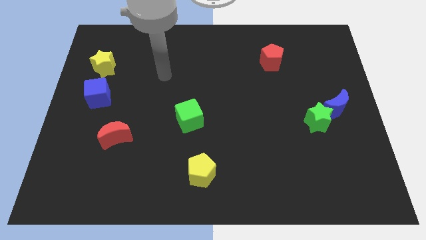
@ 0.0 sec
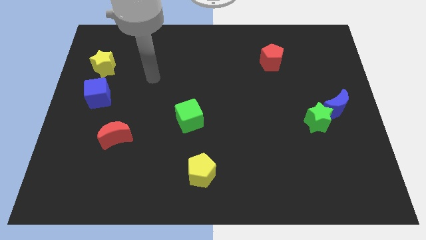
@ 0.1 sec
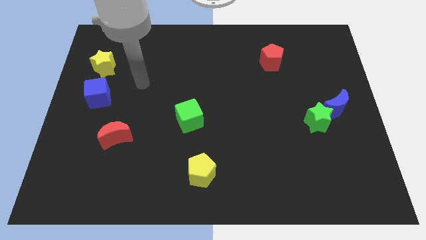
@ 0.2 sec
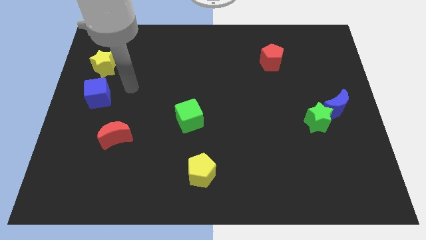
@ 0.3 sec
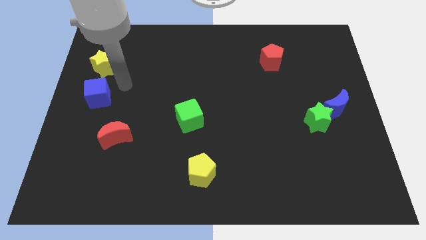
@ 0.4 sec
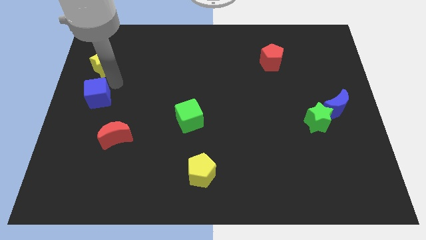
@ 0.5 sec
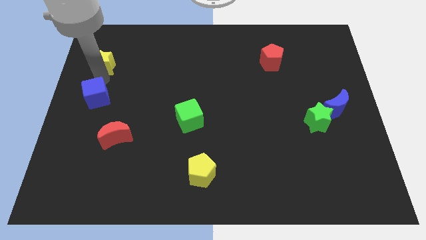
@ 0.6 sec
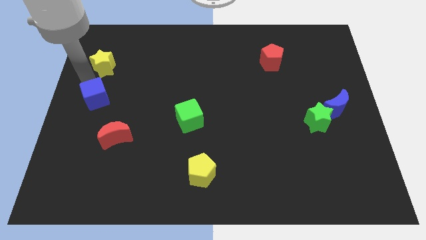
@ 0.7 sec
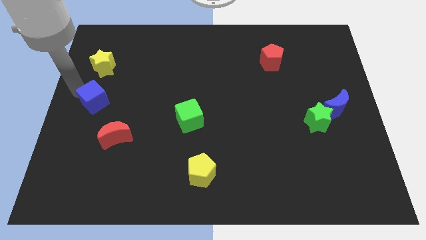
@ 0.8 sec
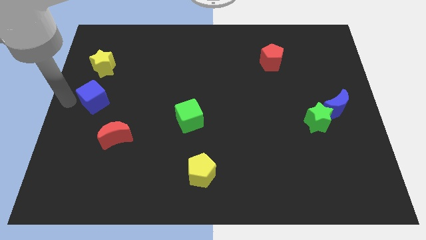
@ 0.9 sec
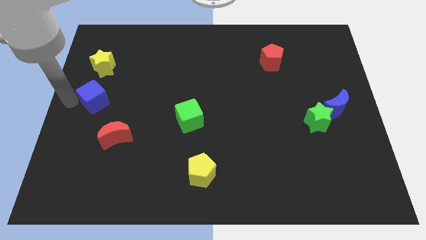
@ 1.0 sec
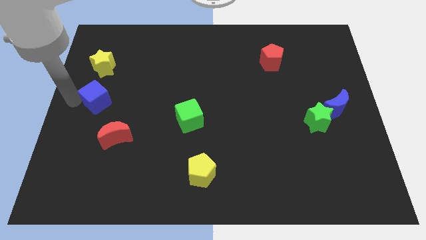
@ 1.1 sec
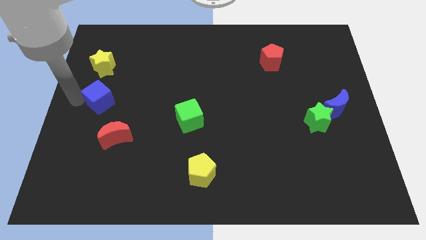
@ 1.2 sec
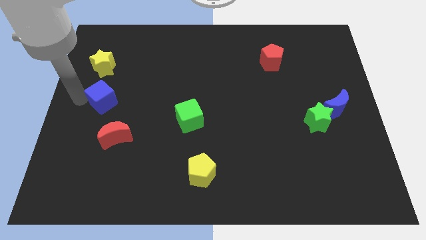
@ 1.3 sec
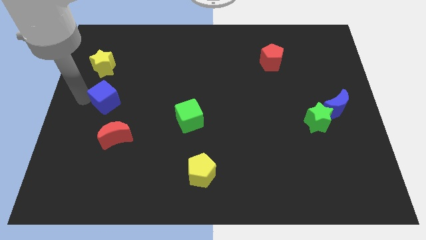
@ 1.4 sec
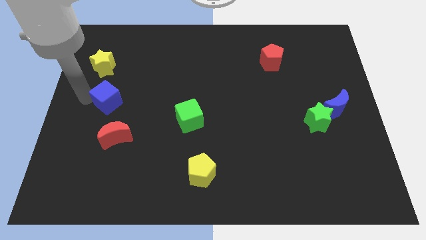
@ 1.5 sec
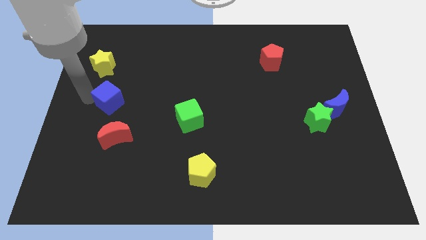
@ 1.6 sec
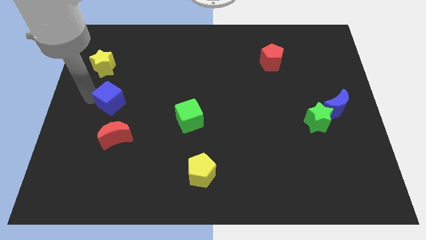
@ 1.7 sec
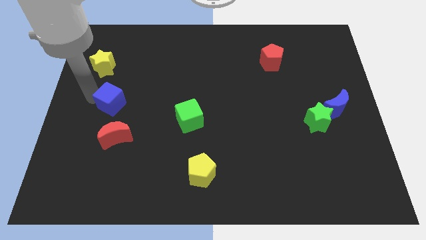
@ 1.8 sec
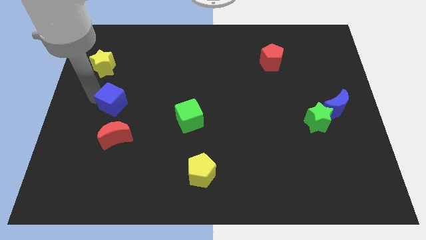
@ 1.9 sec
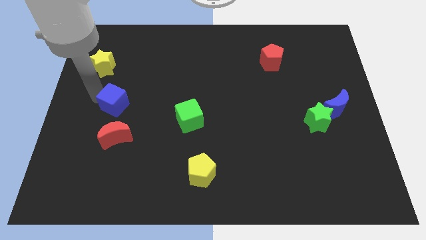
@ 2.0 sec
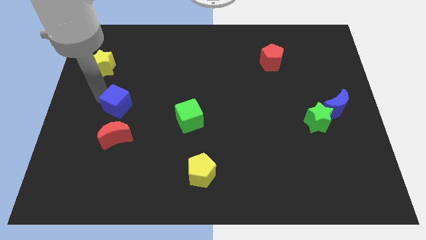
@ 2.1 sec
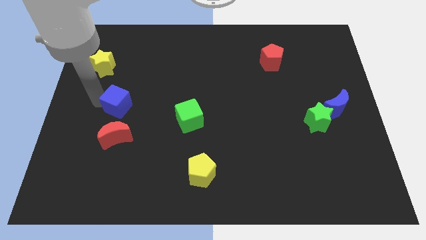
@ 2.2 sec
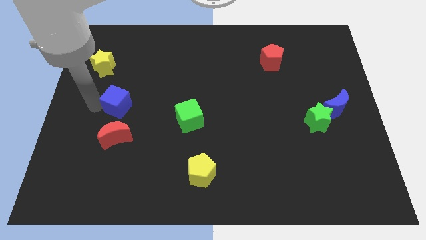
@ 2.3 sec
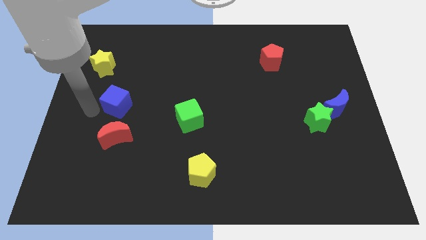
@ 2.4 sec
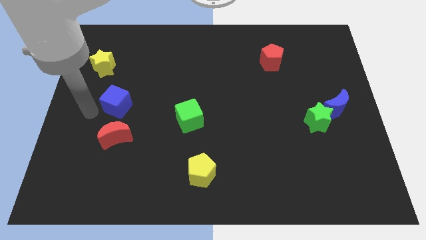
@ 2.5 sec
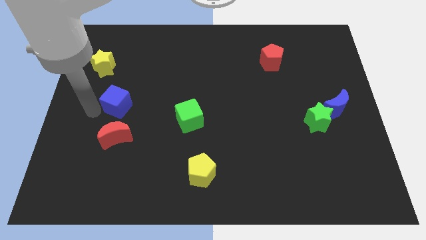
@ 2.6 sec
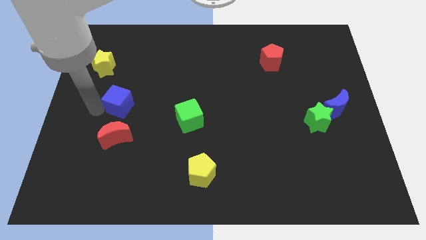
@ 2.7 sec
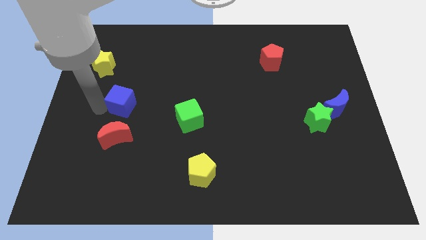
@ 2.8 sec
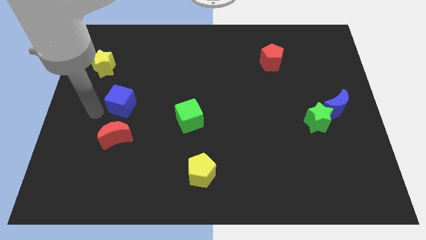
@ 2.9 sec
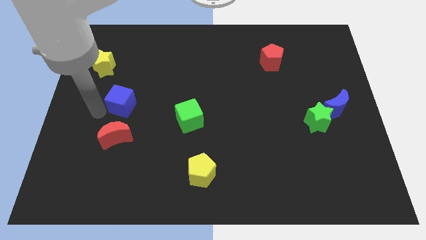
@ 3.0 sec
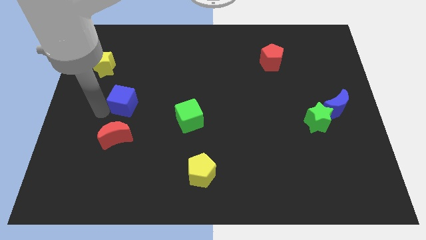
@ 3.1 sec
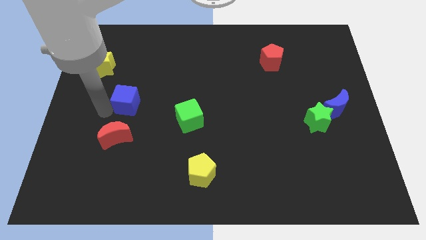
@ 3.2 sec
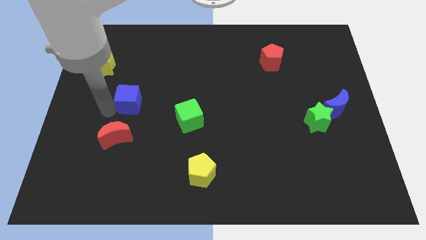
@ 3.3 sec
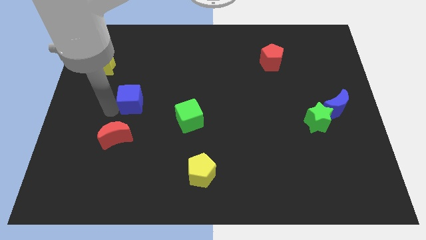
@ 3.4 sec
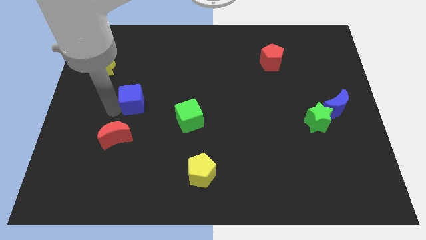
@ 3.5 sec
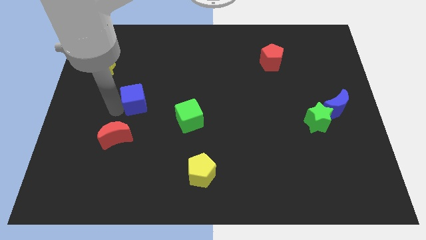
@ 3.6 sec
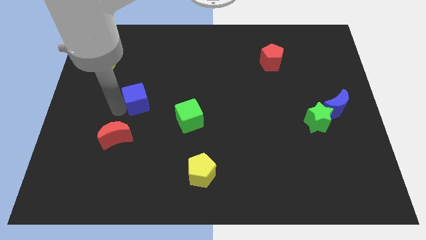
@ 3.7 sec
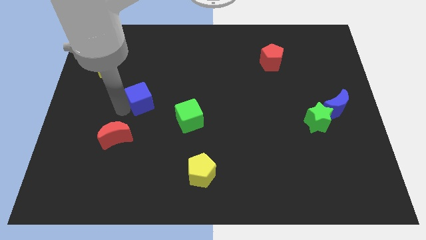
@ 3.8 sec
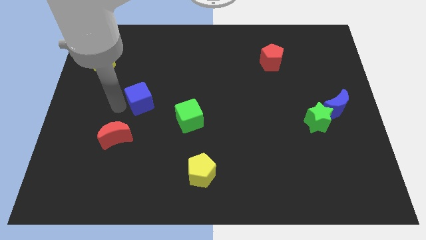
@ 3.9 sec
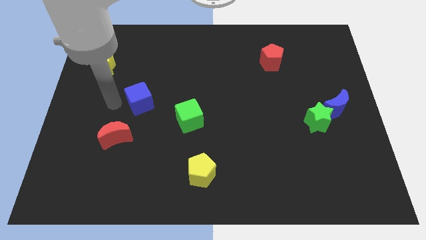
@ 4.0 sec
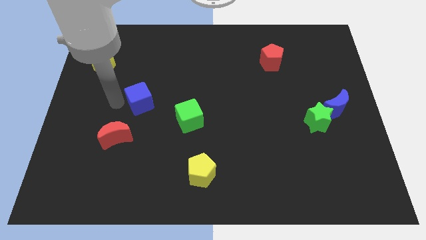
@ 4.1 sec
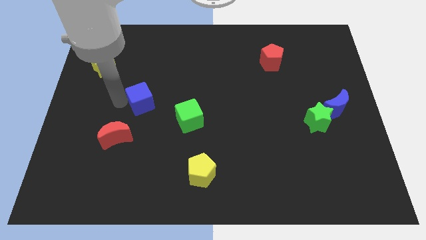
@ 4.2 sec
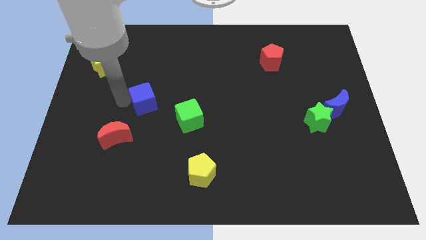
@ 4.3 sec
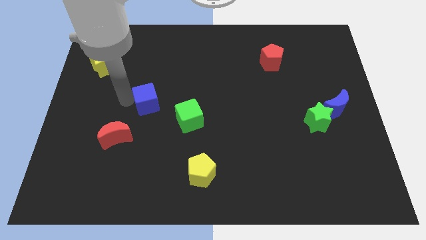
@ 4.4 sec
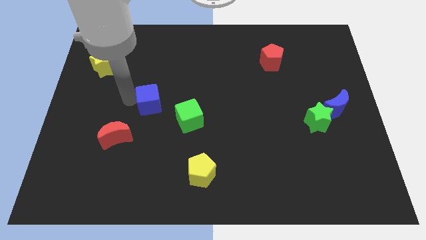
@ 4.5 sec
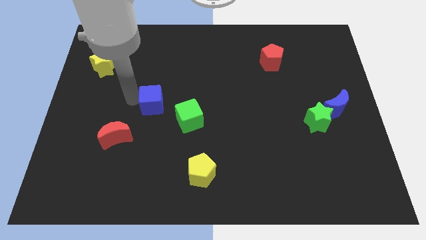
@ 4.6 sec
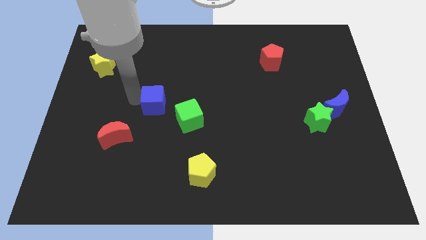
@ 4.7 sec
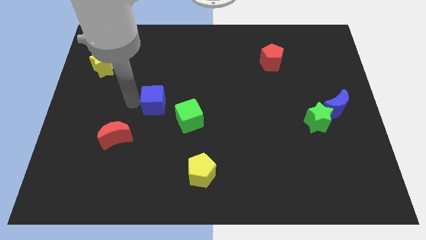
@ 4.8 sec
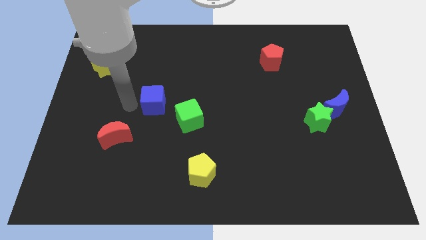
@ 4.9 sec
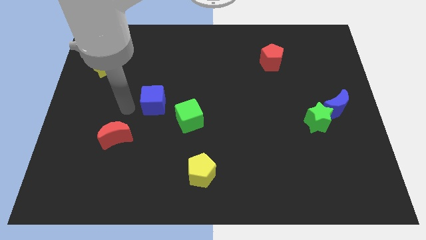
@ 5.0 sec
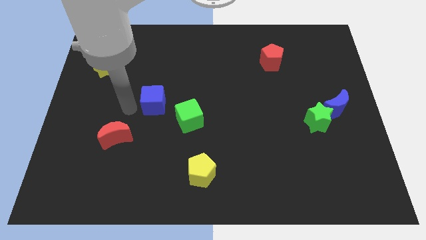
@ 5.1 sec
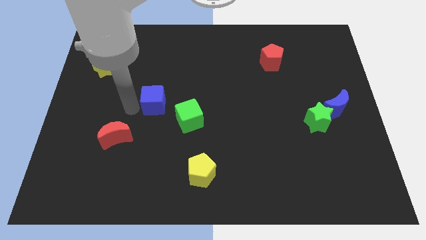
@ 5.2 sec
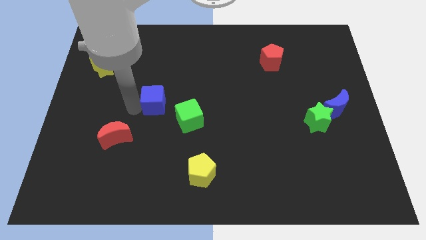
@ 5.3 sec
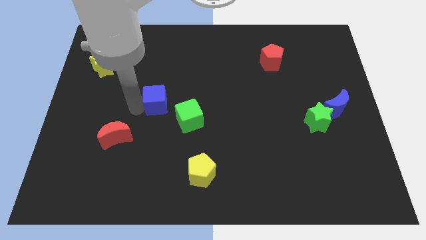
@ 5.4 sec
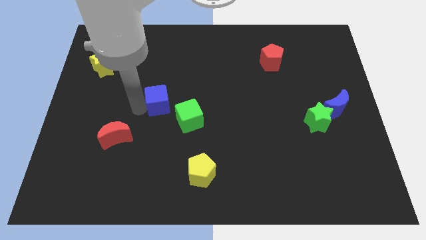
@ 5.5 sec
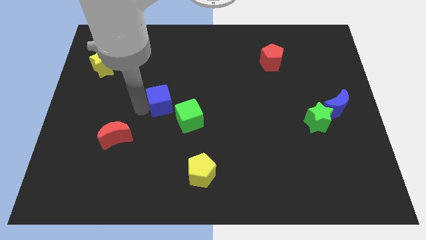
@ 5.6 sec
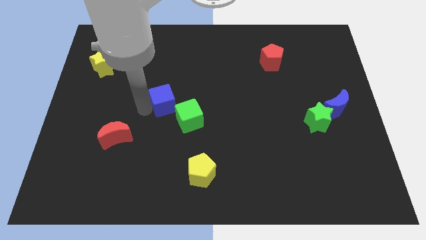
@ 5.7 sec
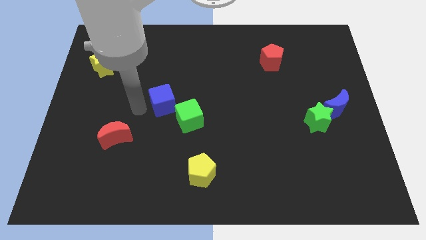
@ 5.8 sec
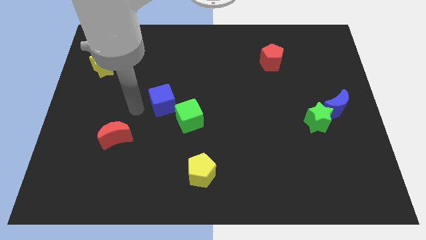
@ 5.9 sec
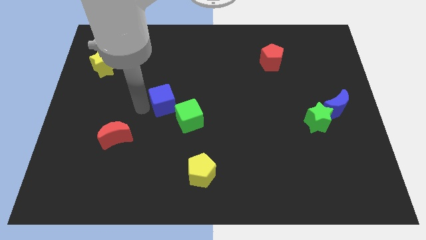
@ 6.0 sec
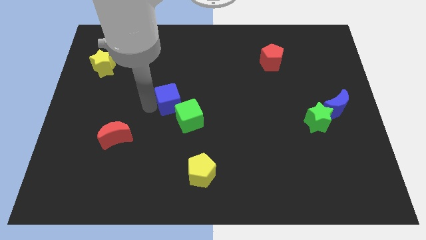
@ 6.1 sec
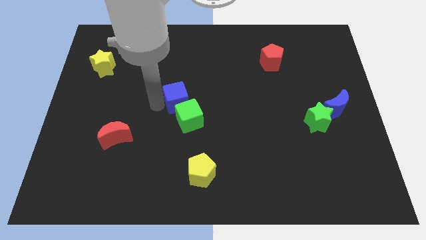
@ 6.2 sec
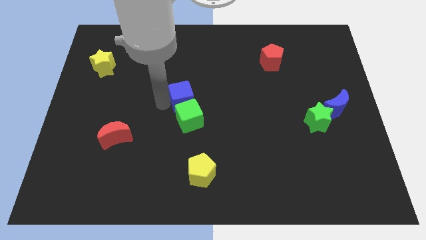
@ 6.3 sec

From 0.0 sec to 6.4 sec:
slide the blue cube to the right

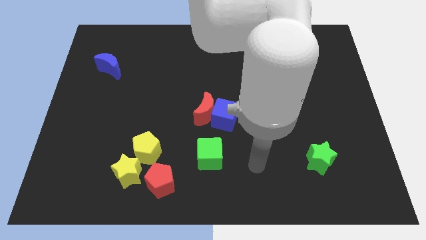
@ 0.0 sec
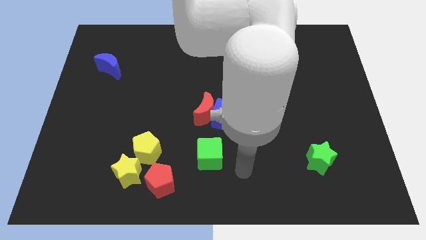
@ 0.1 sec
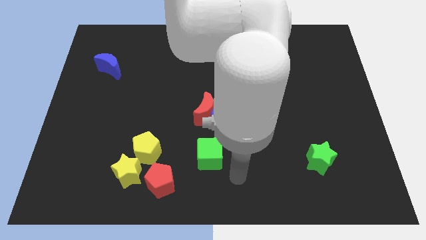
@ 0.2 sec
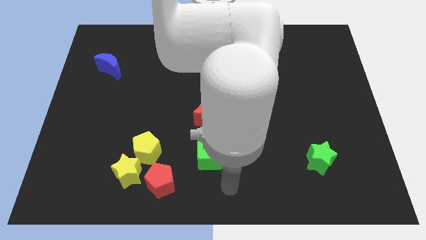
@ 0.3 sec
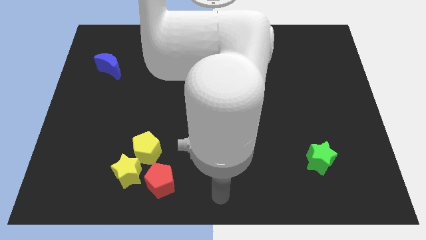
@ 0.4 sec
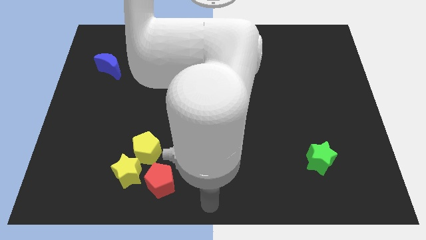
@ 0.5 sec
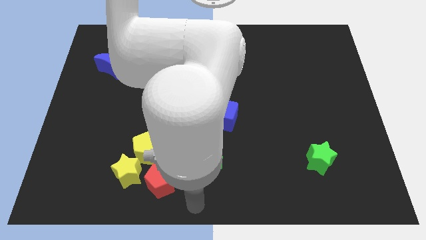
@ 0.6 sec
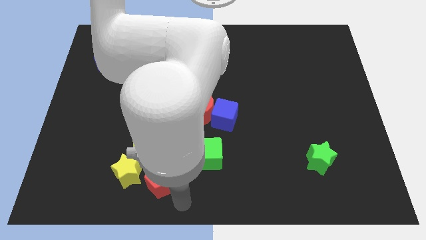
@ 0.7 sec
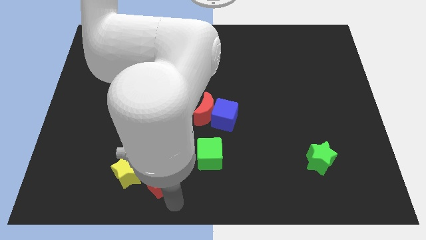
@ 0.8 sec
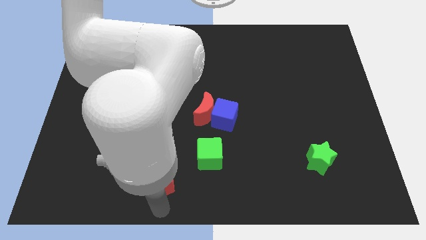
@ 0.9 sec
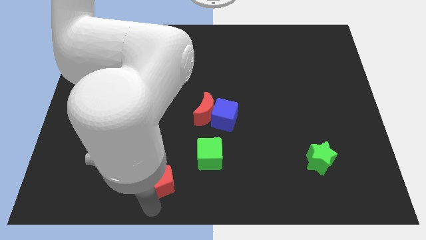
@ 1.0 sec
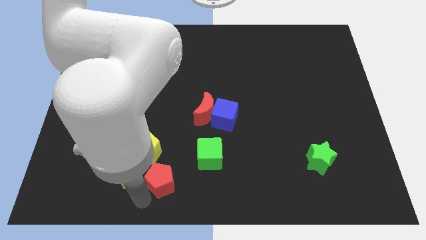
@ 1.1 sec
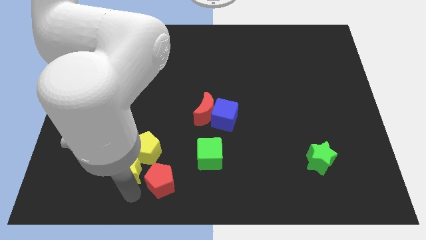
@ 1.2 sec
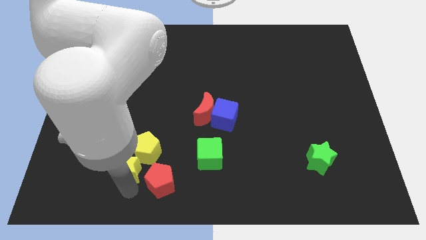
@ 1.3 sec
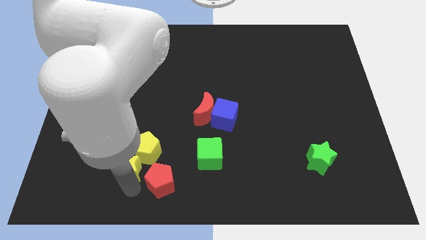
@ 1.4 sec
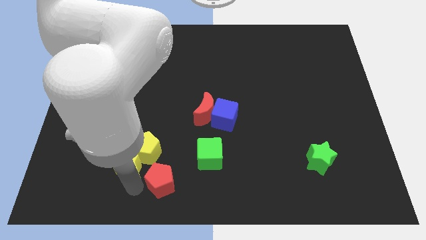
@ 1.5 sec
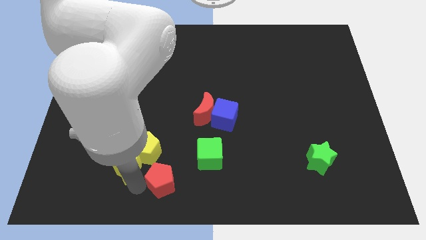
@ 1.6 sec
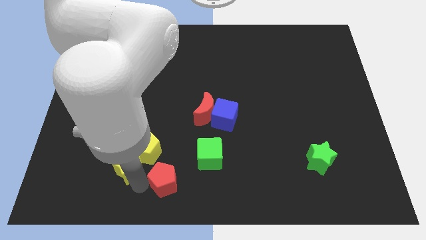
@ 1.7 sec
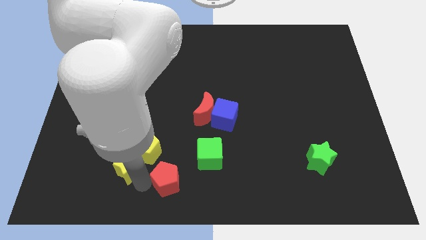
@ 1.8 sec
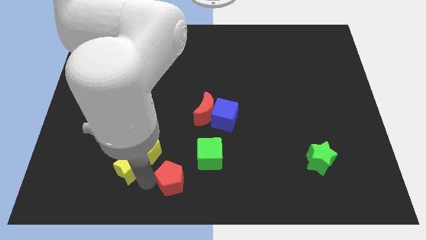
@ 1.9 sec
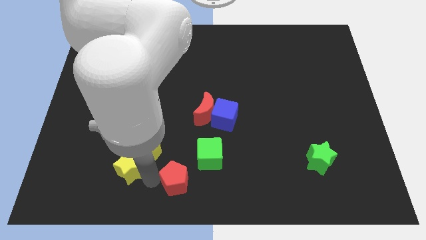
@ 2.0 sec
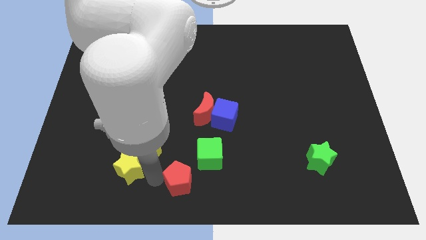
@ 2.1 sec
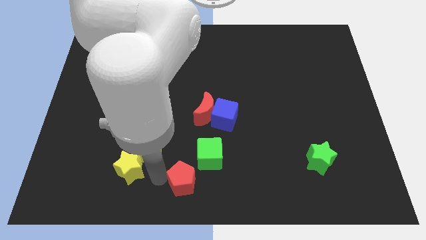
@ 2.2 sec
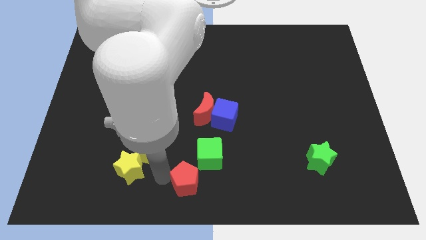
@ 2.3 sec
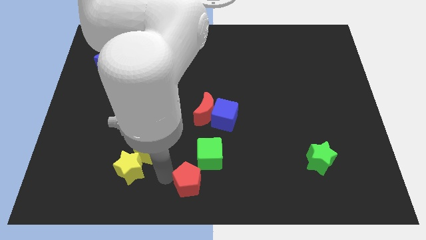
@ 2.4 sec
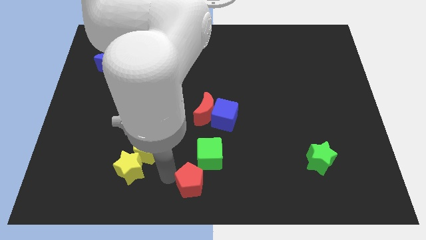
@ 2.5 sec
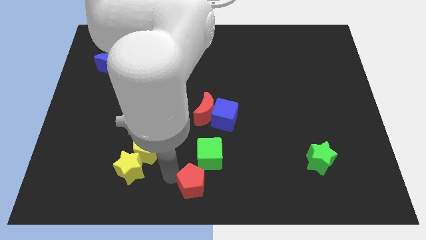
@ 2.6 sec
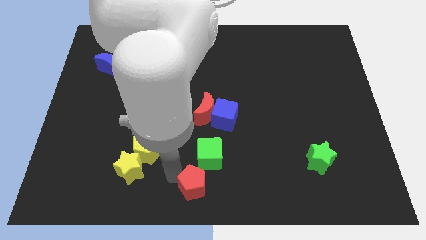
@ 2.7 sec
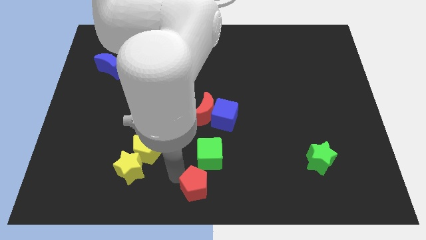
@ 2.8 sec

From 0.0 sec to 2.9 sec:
move the red pentagon a little bit right
